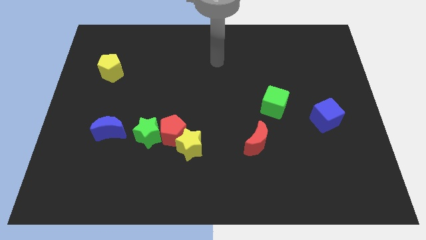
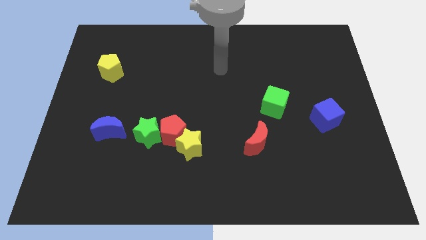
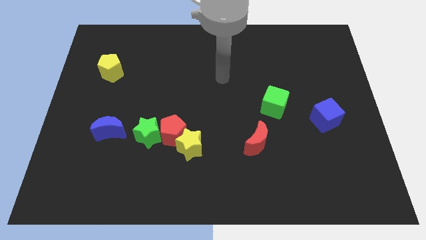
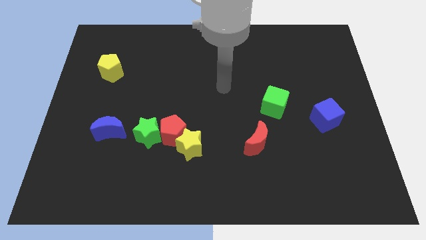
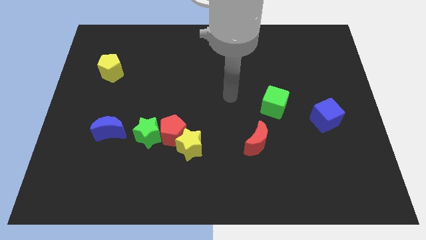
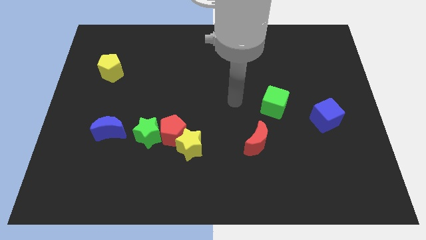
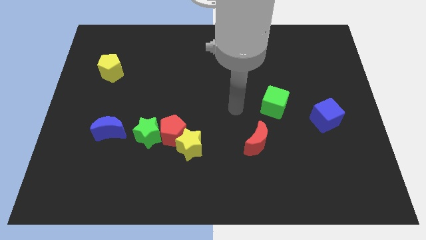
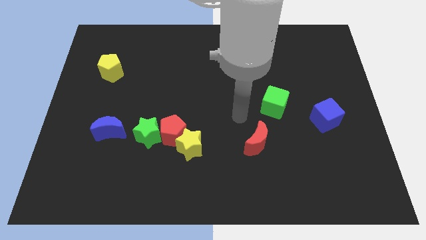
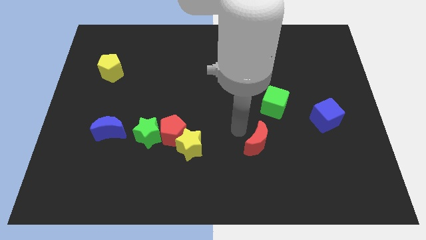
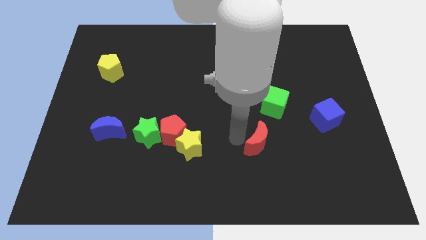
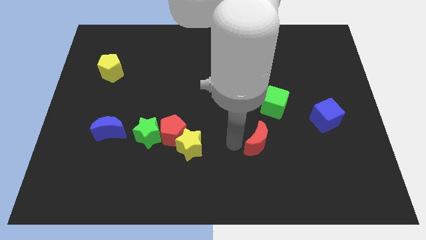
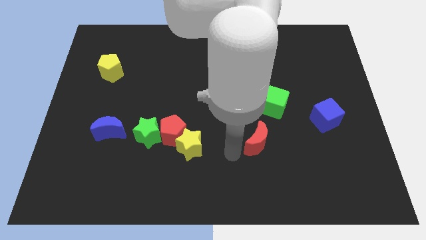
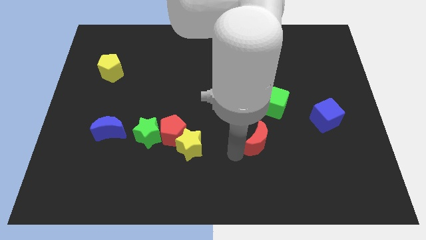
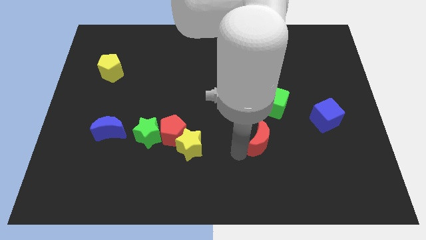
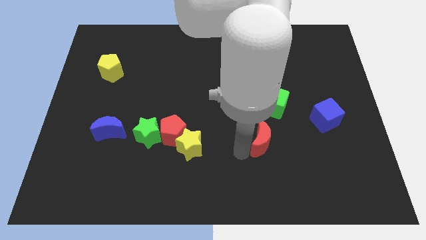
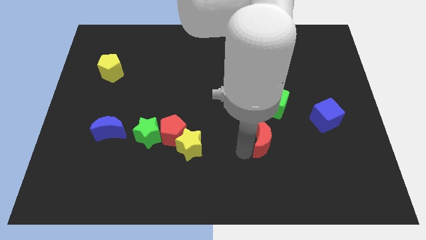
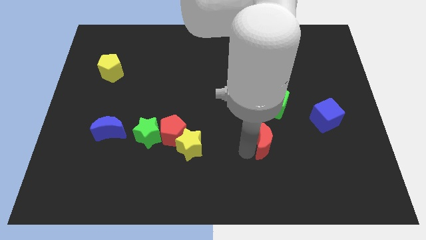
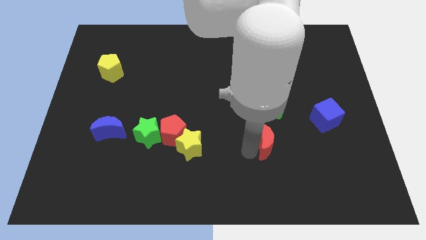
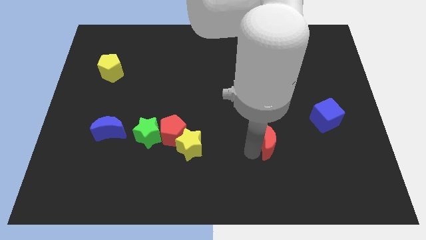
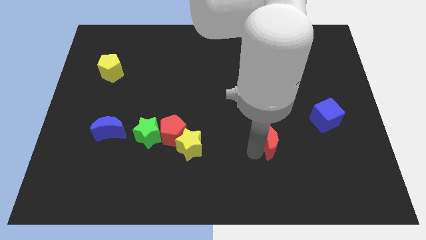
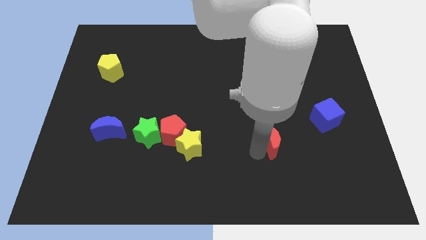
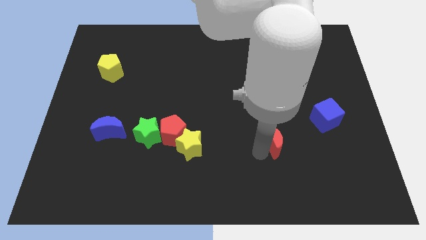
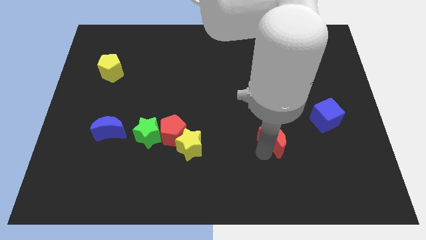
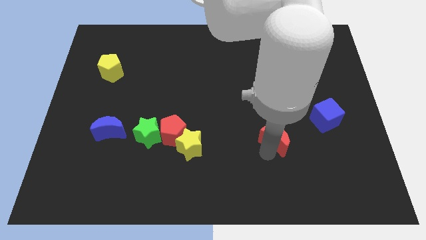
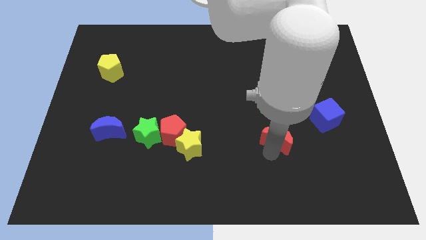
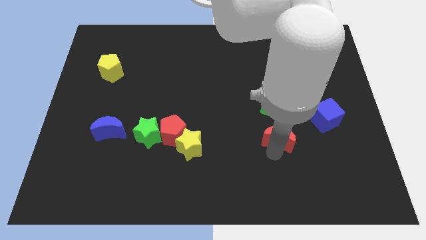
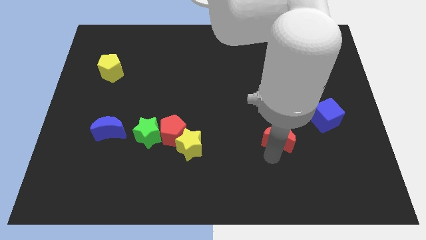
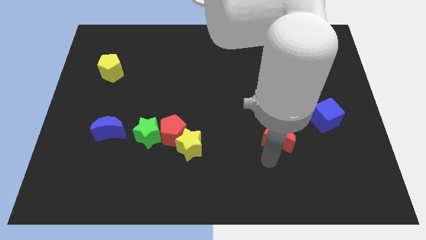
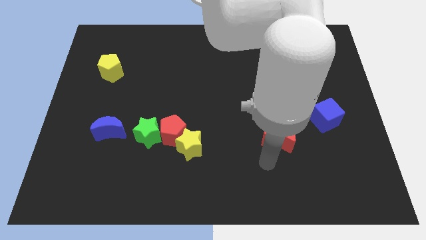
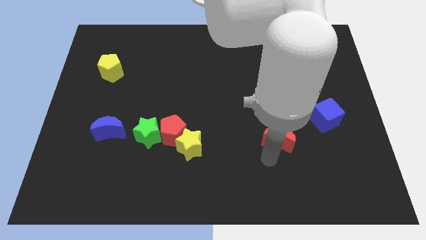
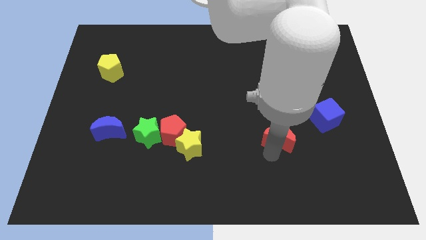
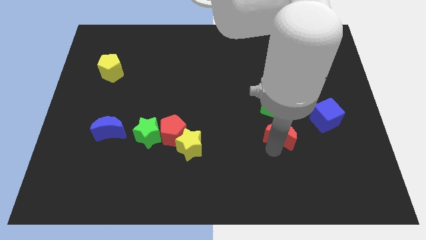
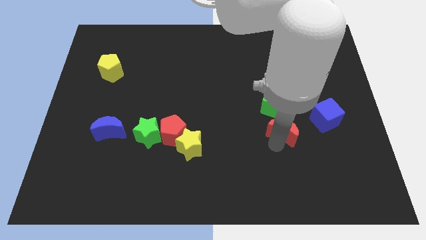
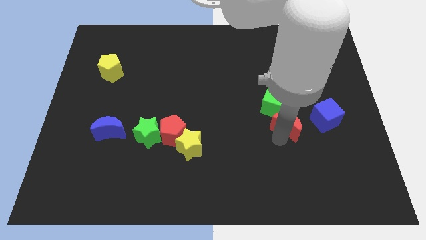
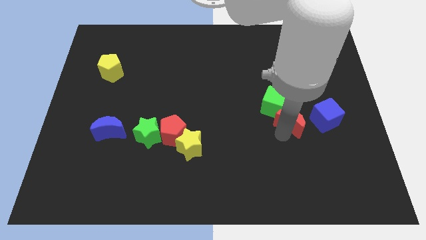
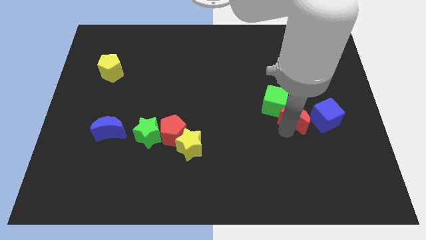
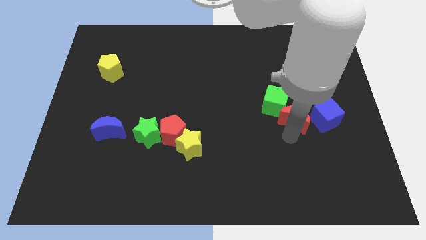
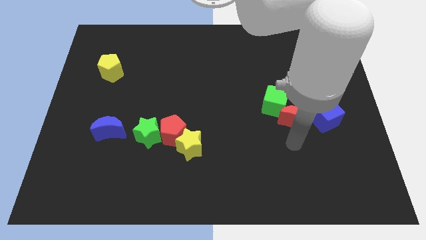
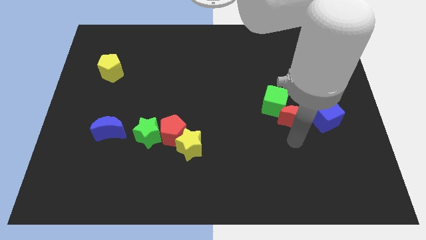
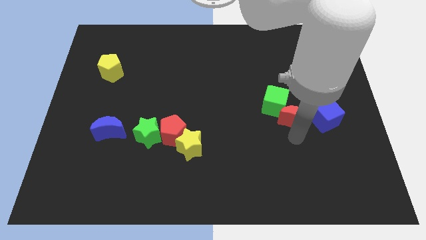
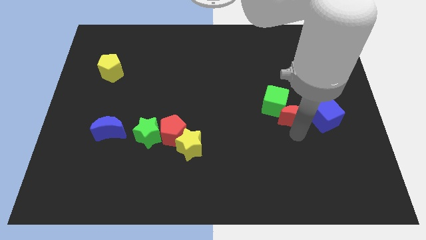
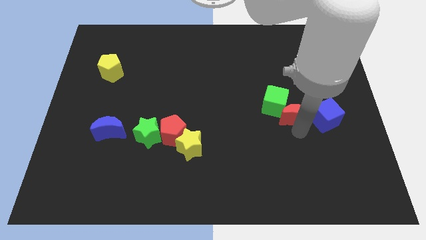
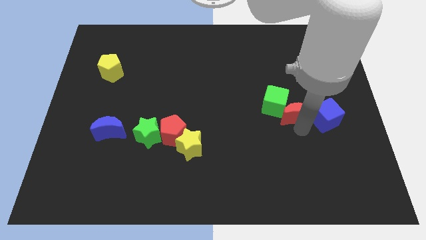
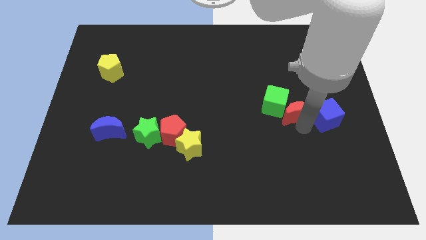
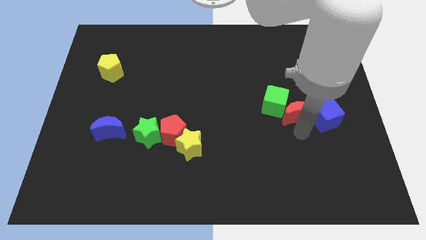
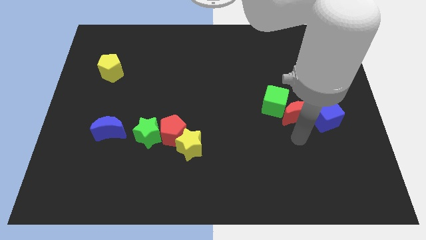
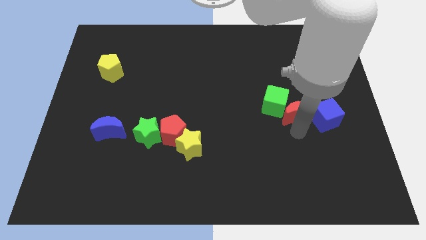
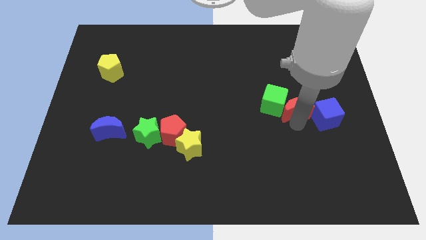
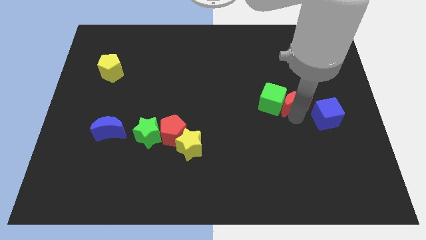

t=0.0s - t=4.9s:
slide the red moon diagonally up and to the right of the green cube

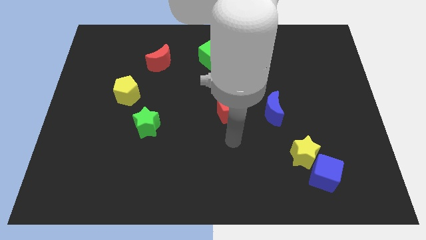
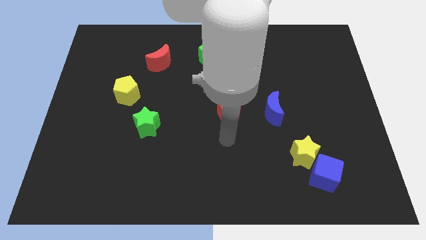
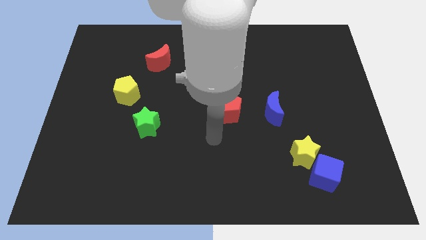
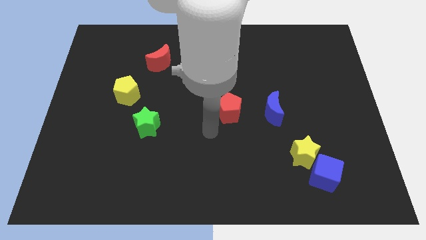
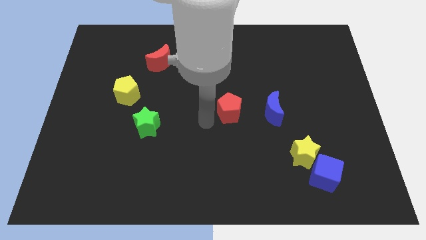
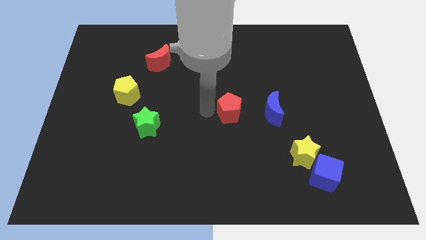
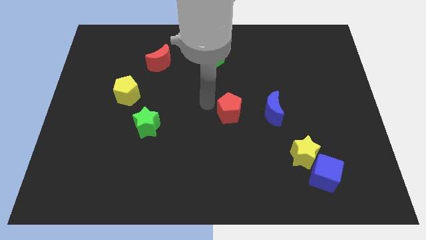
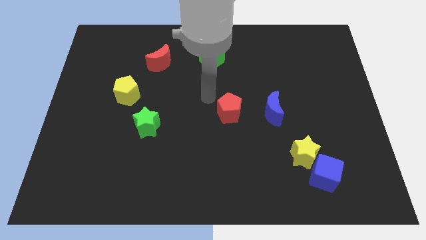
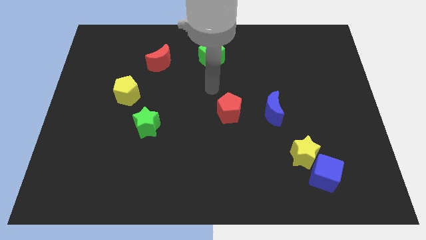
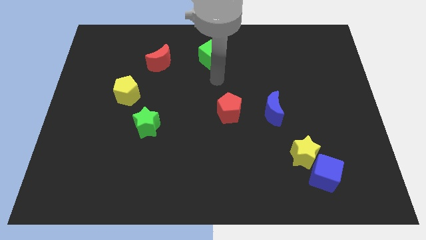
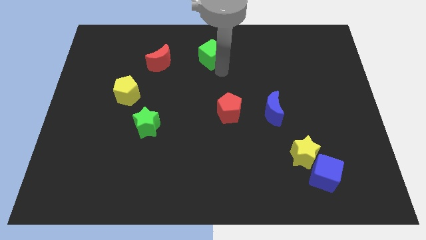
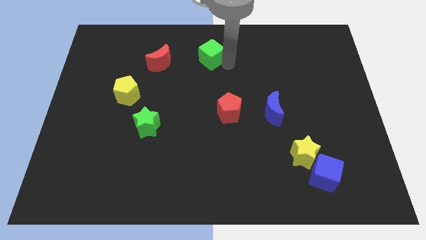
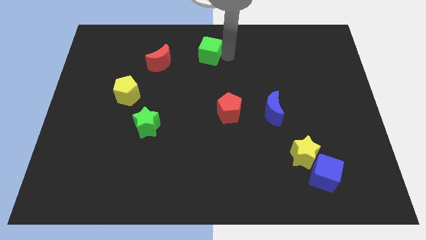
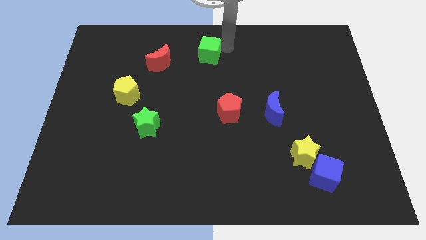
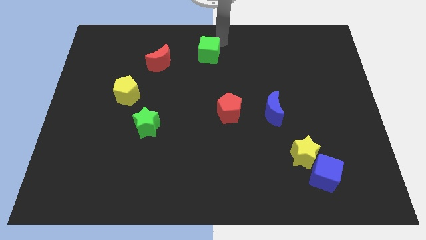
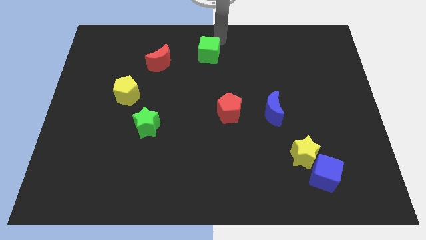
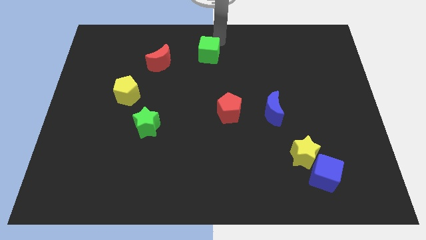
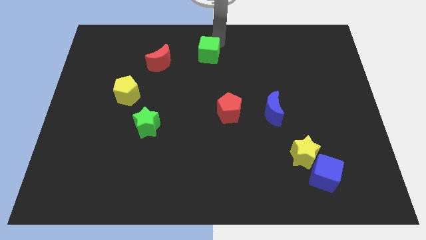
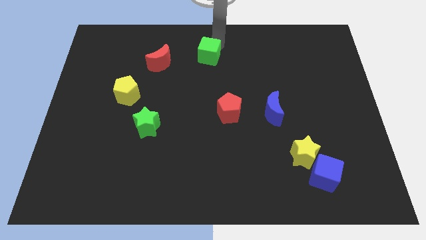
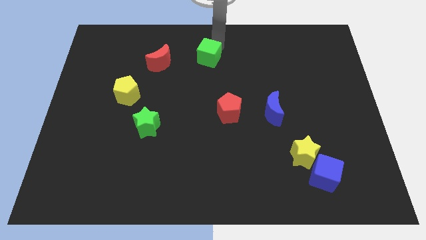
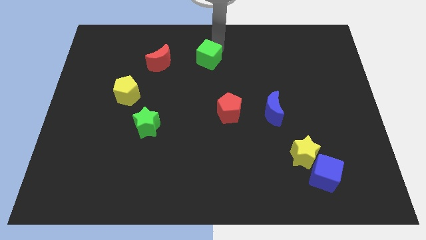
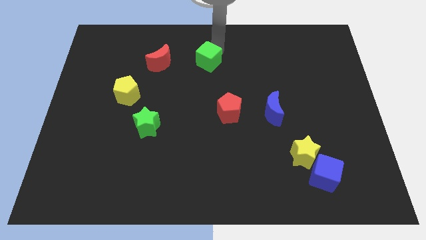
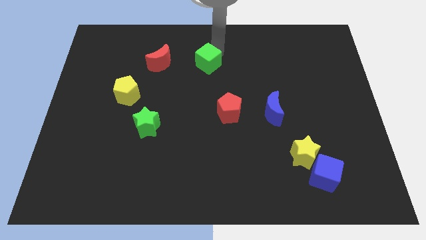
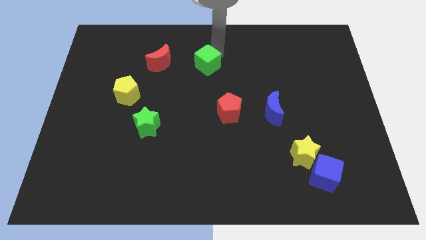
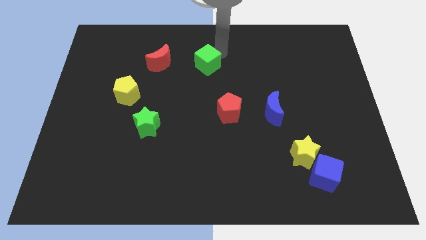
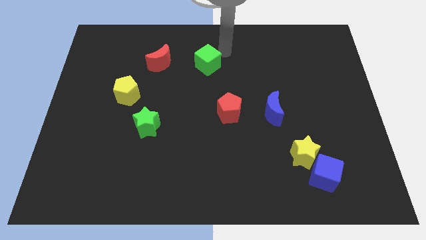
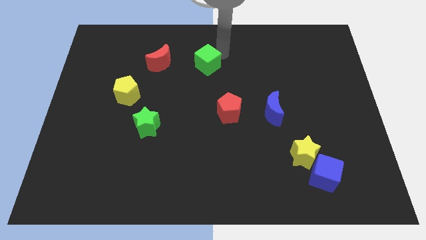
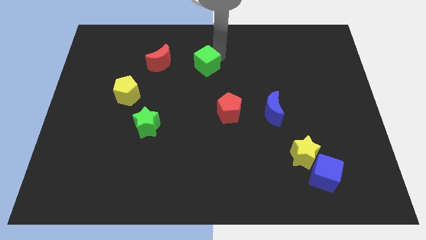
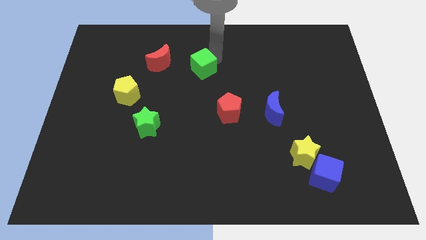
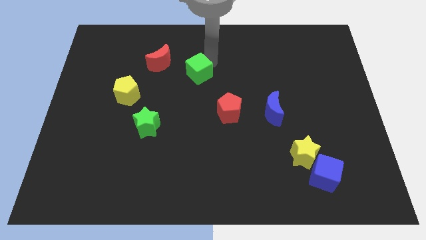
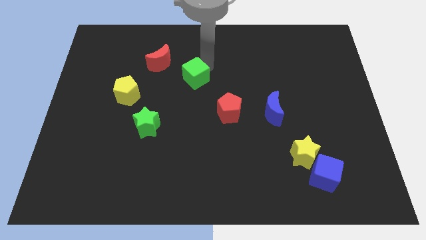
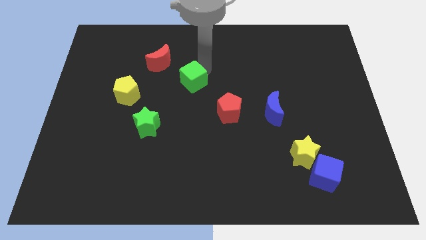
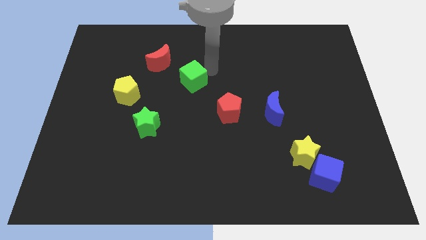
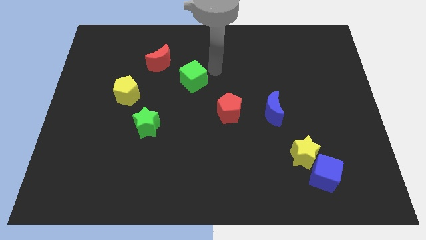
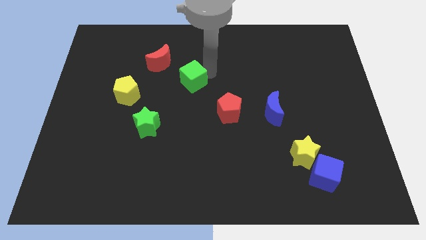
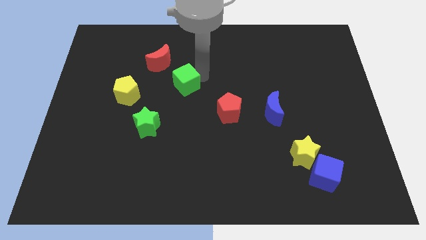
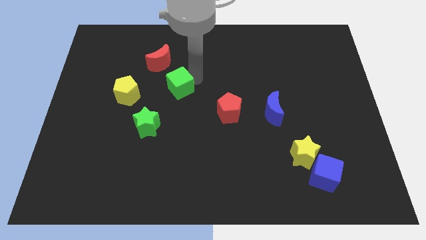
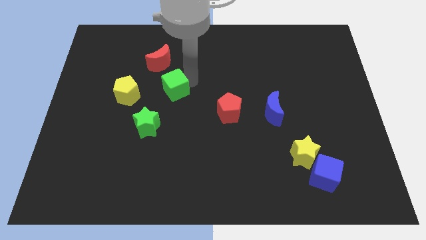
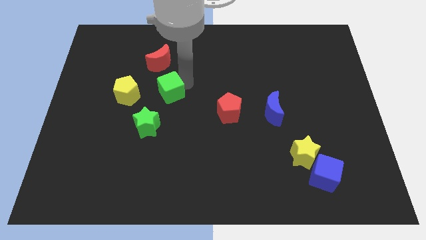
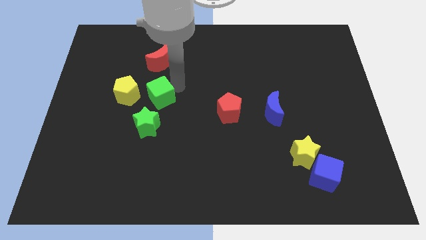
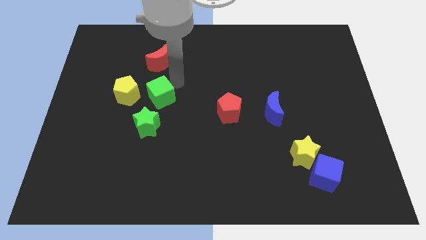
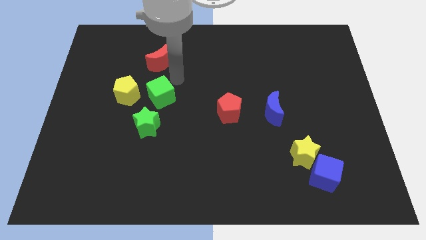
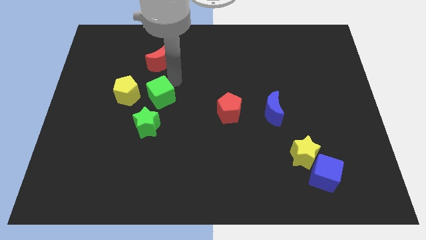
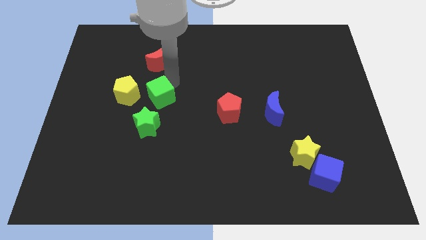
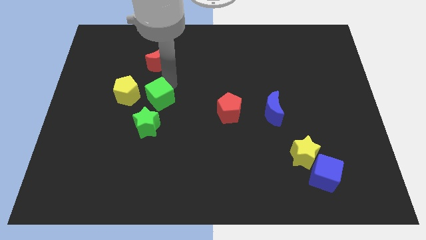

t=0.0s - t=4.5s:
slide the green cube to the bottom right side of the yellow pentagon
